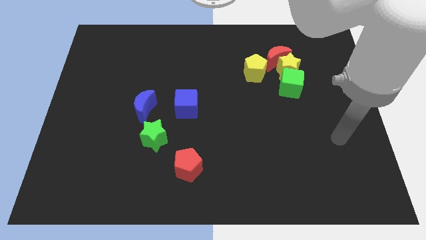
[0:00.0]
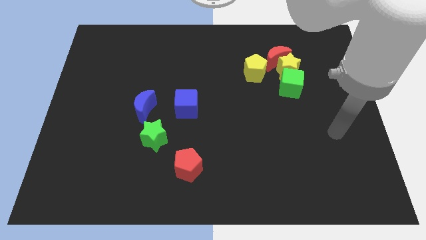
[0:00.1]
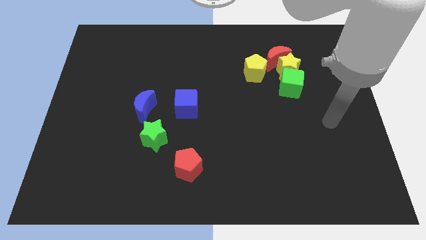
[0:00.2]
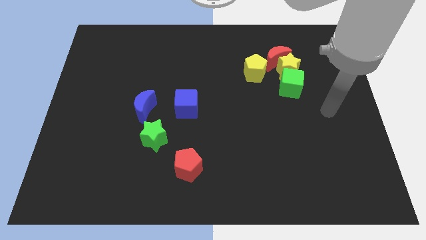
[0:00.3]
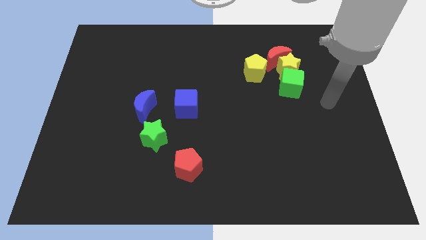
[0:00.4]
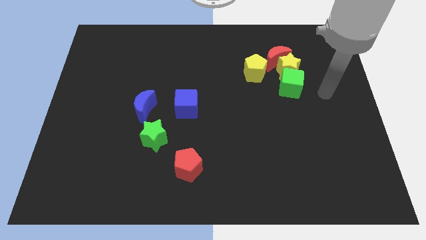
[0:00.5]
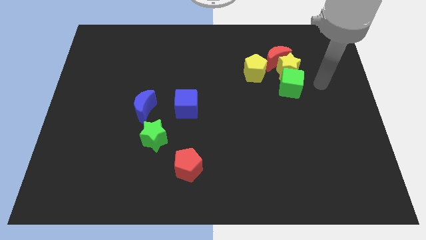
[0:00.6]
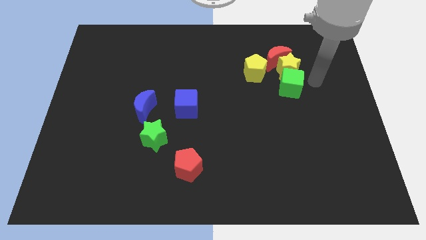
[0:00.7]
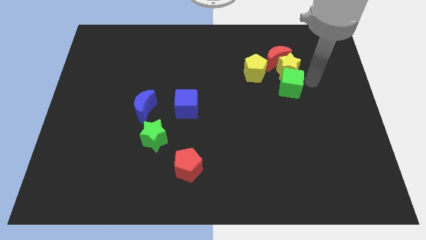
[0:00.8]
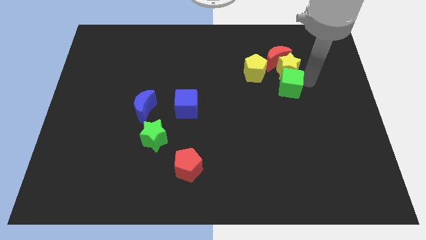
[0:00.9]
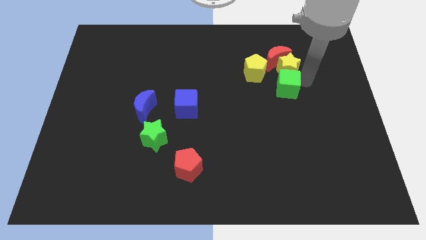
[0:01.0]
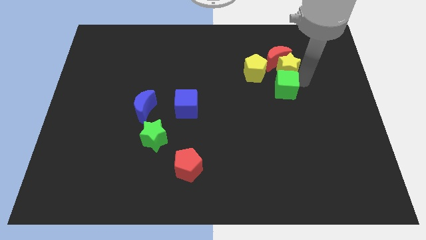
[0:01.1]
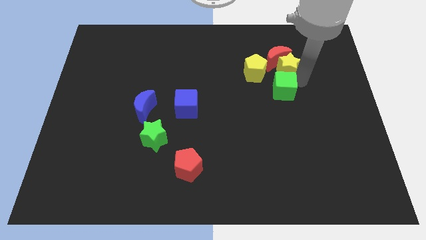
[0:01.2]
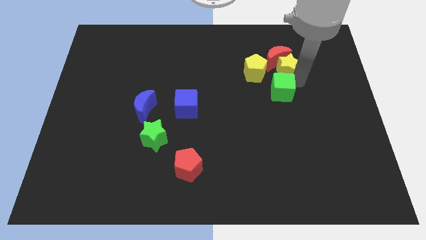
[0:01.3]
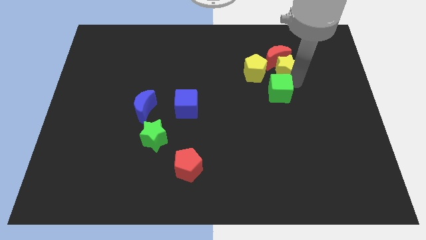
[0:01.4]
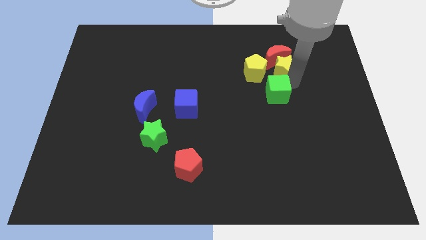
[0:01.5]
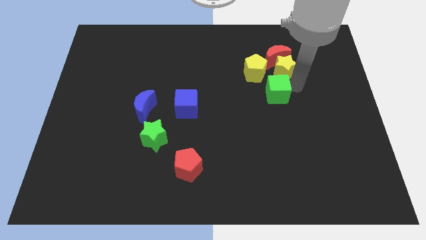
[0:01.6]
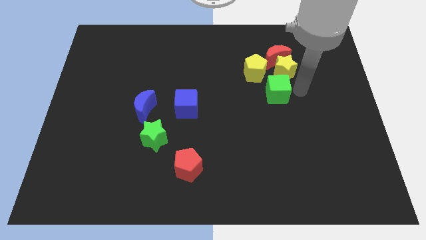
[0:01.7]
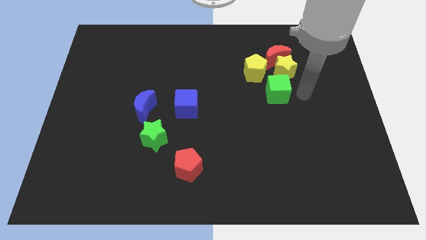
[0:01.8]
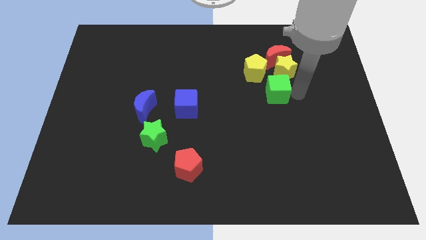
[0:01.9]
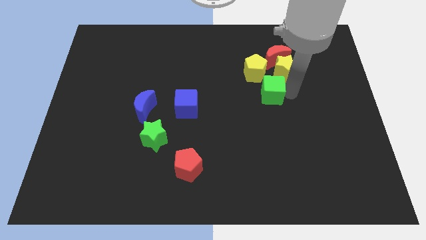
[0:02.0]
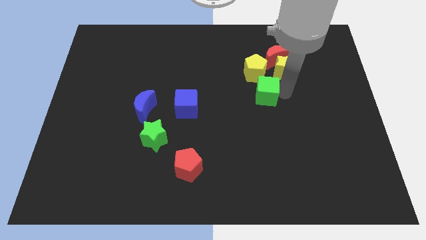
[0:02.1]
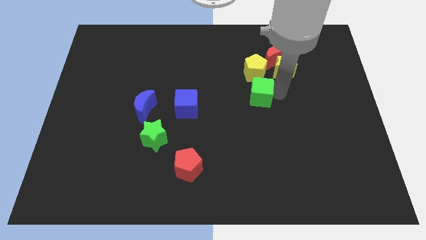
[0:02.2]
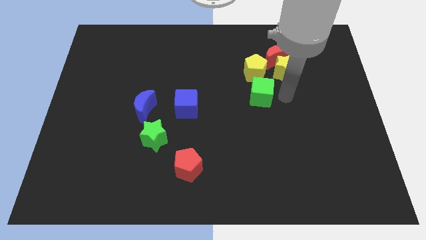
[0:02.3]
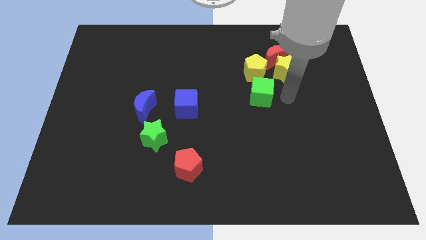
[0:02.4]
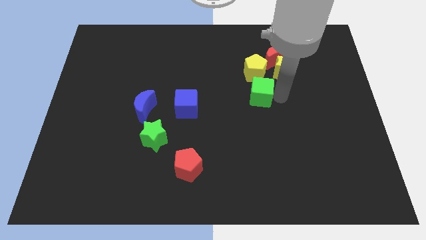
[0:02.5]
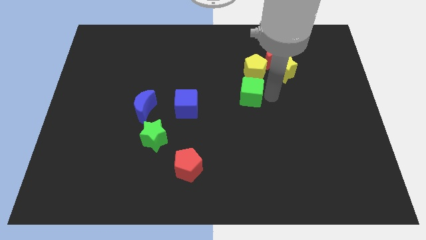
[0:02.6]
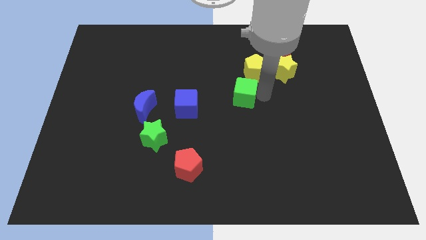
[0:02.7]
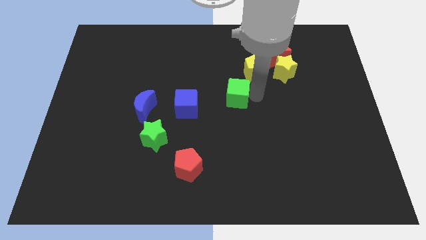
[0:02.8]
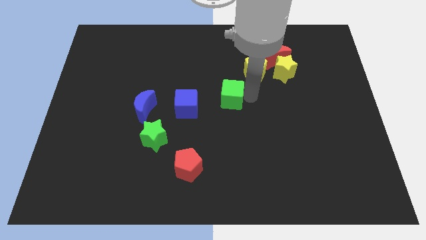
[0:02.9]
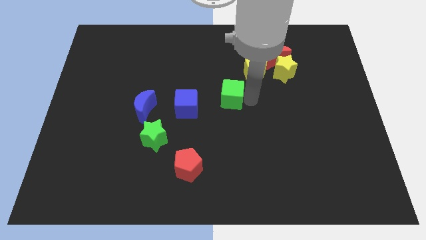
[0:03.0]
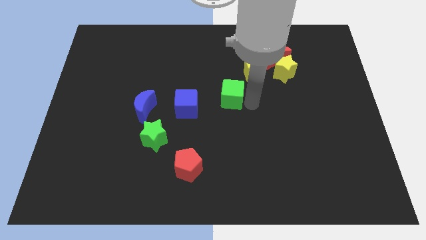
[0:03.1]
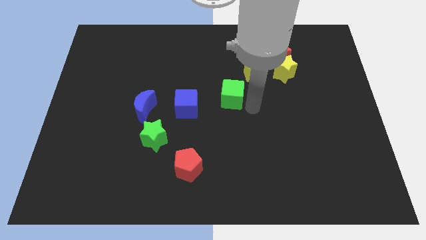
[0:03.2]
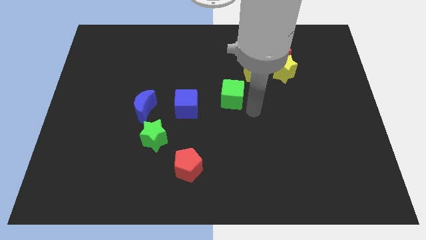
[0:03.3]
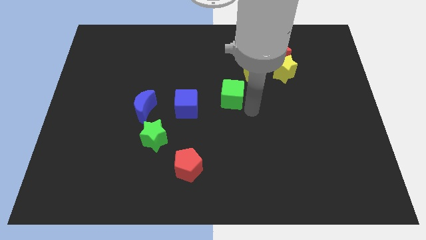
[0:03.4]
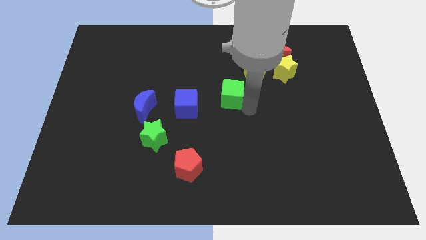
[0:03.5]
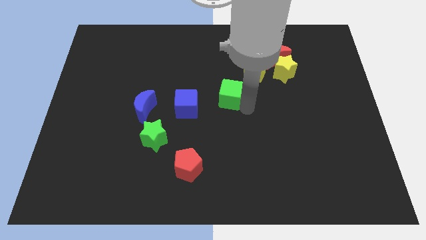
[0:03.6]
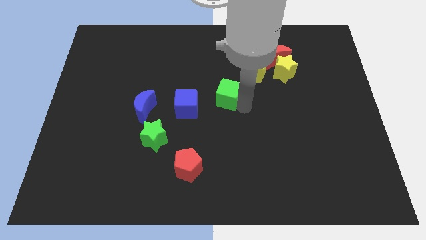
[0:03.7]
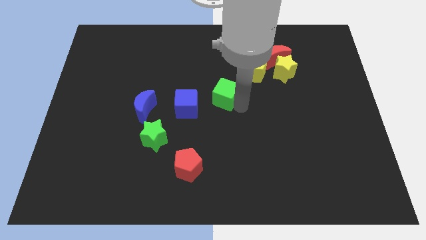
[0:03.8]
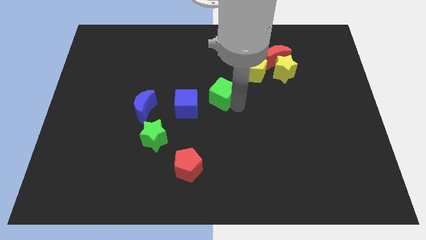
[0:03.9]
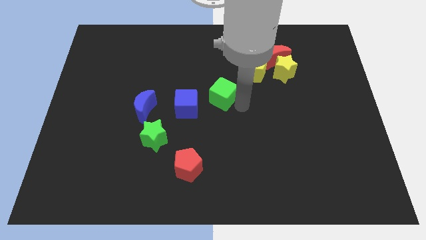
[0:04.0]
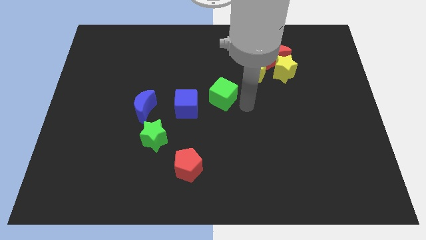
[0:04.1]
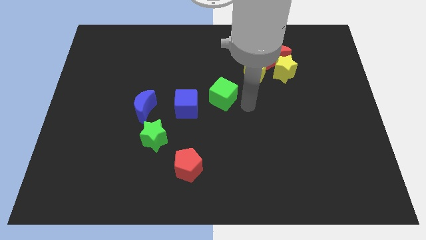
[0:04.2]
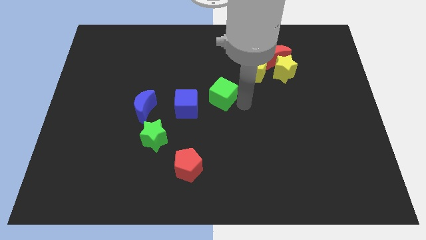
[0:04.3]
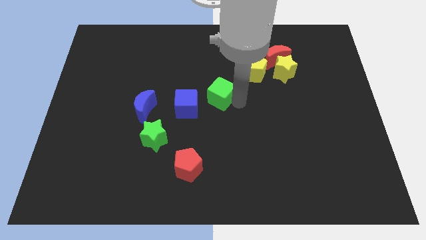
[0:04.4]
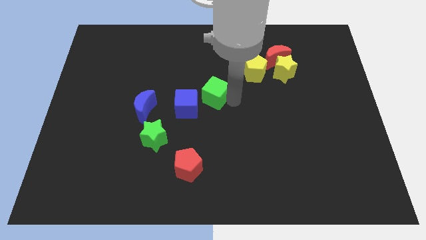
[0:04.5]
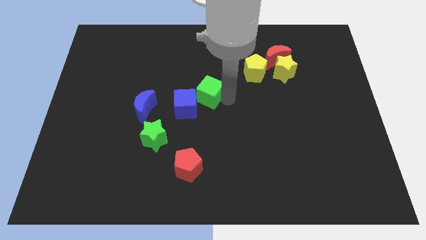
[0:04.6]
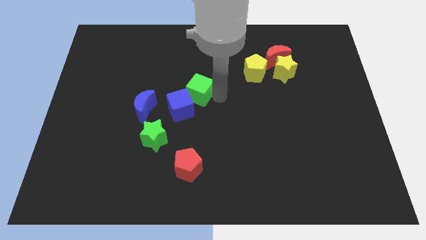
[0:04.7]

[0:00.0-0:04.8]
move the green cube to the left

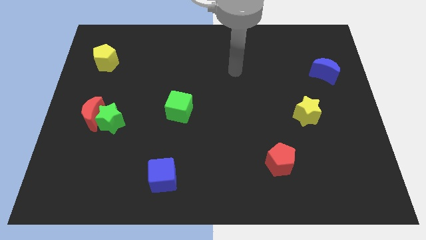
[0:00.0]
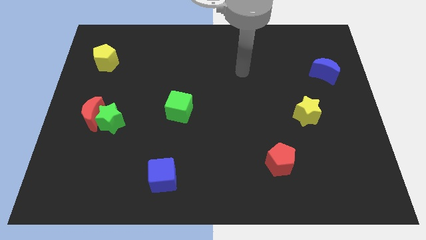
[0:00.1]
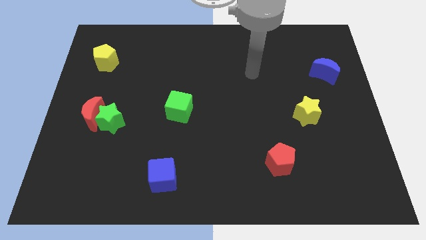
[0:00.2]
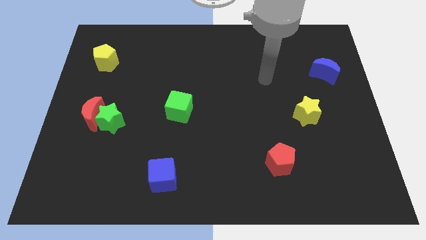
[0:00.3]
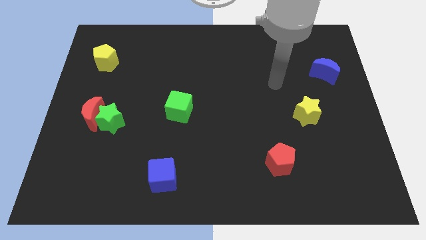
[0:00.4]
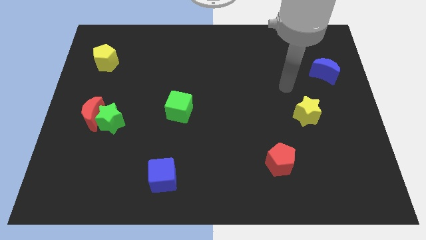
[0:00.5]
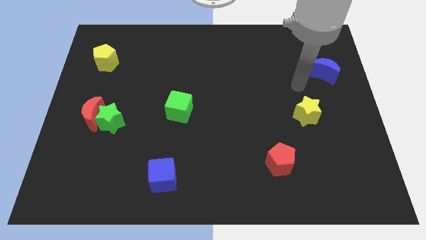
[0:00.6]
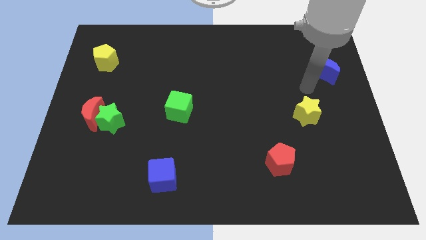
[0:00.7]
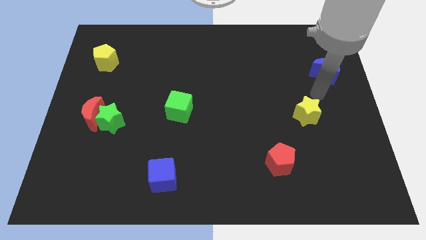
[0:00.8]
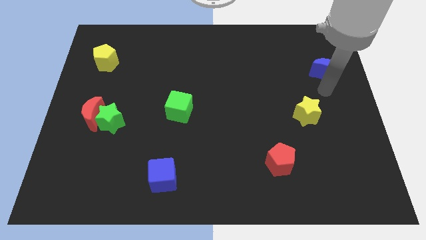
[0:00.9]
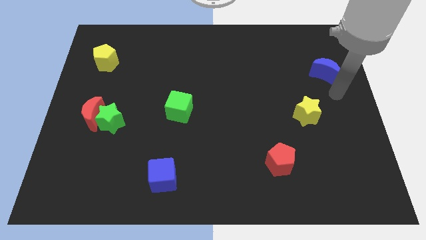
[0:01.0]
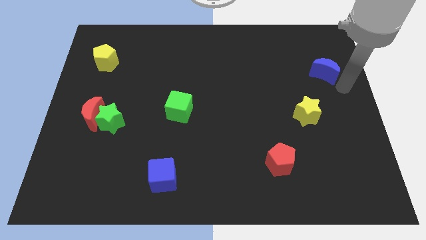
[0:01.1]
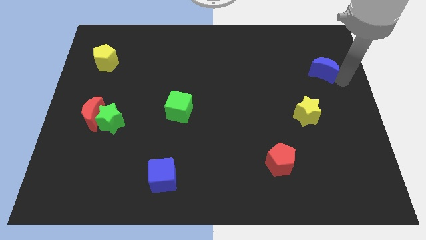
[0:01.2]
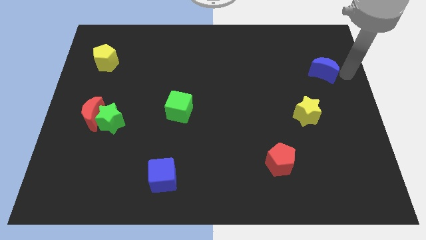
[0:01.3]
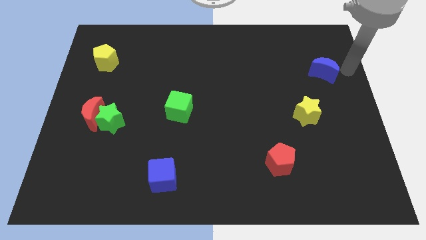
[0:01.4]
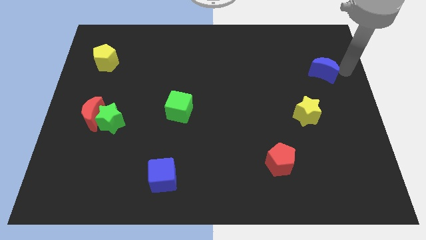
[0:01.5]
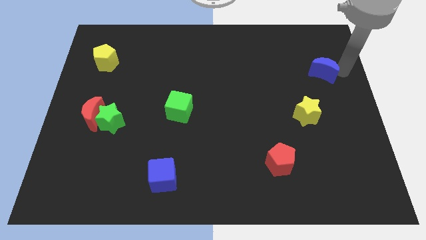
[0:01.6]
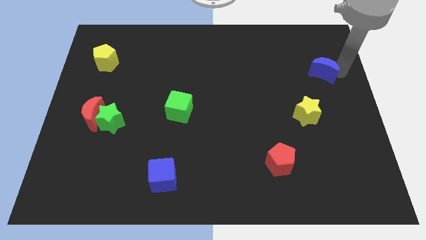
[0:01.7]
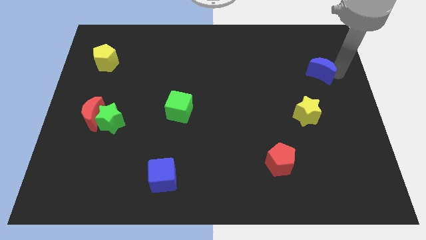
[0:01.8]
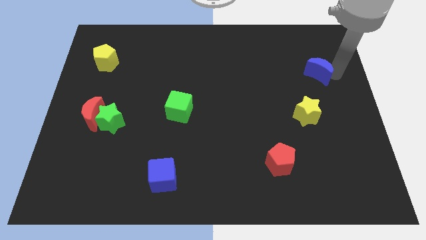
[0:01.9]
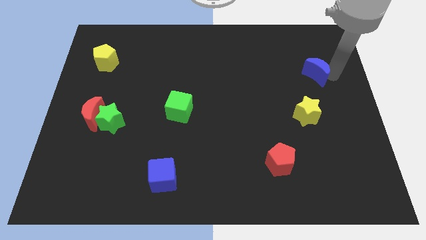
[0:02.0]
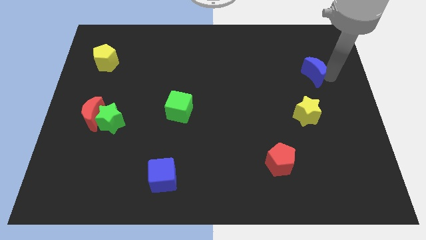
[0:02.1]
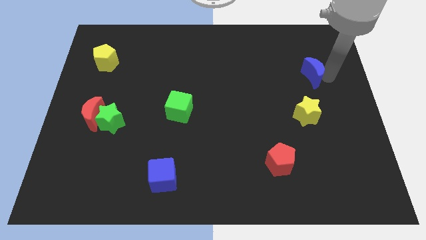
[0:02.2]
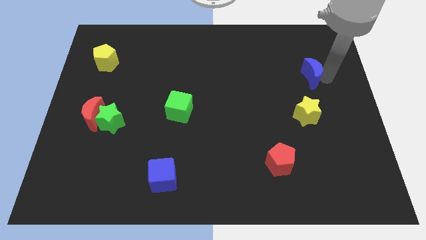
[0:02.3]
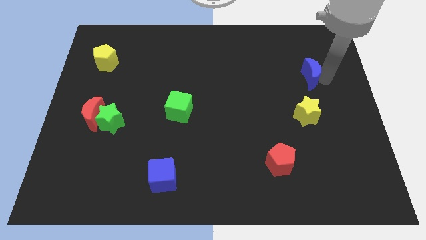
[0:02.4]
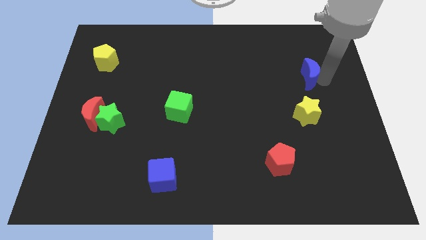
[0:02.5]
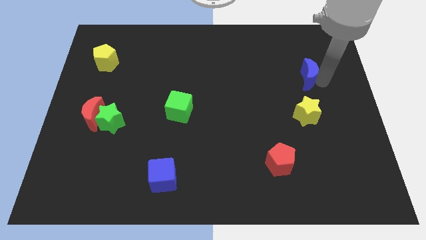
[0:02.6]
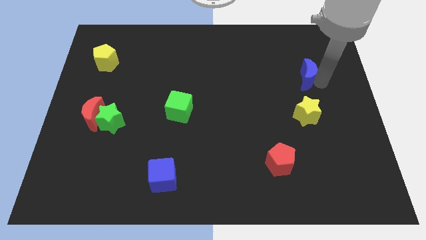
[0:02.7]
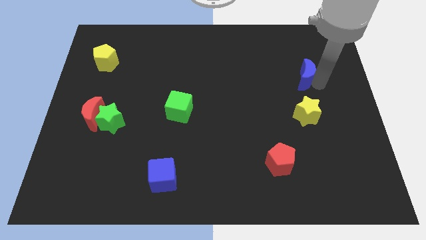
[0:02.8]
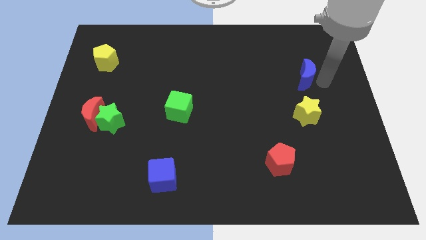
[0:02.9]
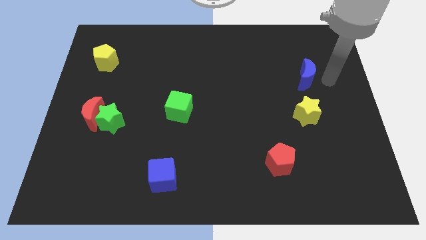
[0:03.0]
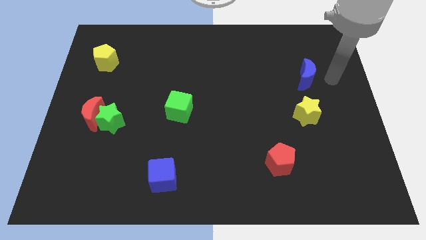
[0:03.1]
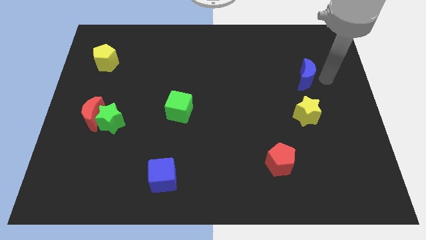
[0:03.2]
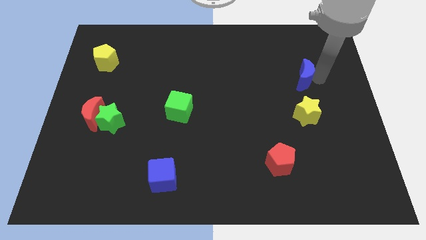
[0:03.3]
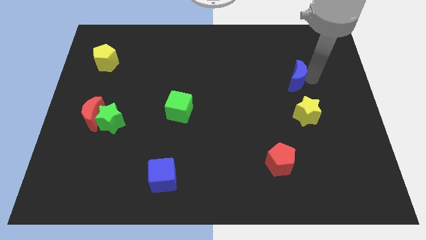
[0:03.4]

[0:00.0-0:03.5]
slide the blue moon left a little
